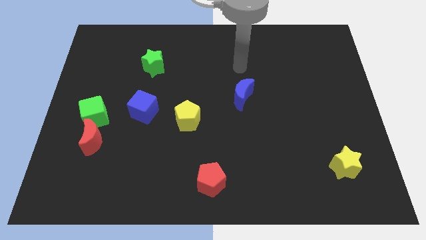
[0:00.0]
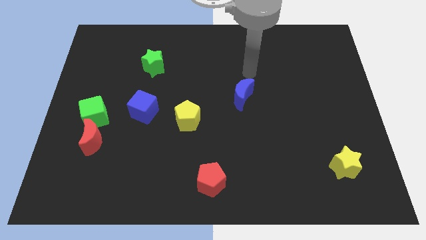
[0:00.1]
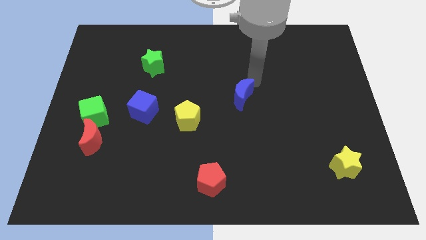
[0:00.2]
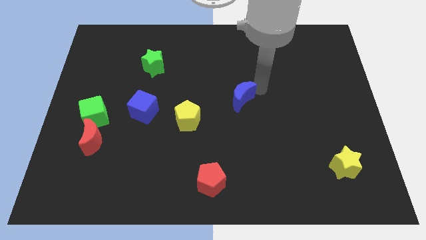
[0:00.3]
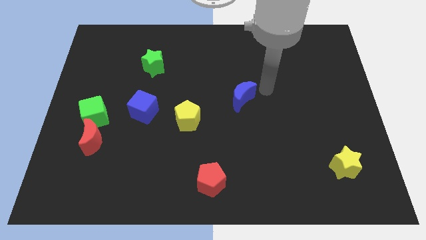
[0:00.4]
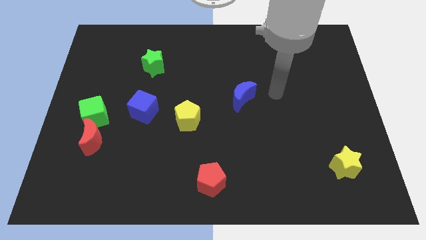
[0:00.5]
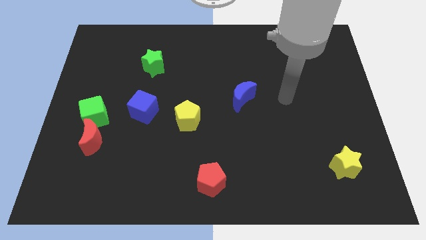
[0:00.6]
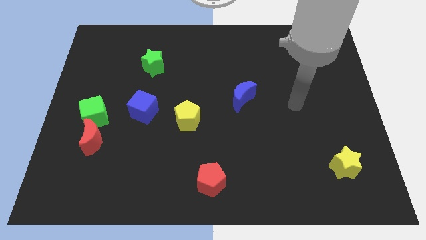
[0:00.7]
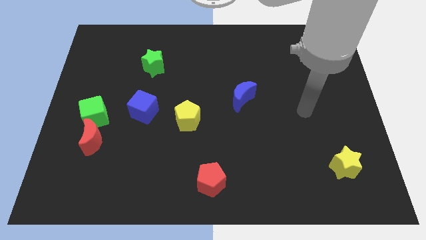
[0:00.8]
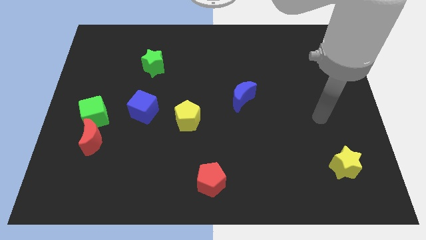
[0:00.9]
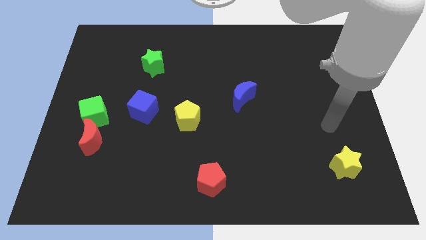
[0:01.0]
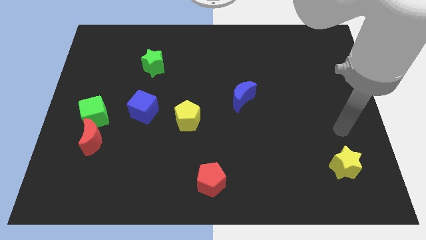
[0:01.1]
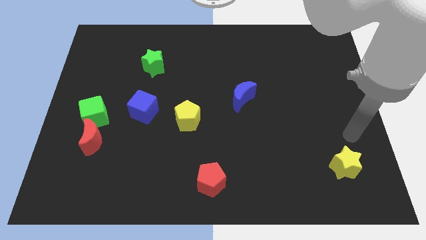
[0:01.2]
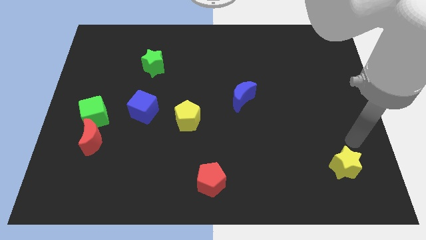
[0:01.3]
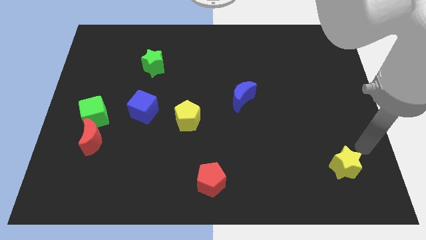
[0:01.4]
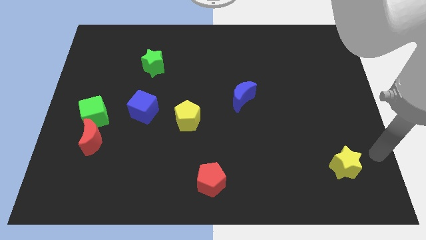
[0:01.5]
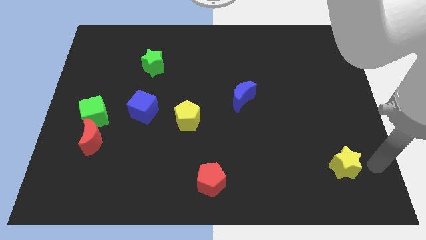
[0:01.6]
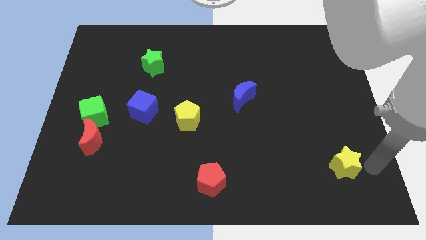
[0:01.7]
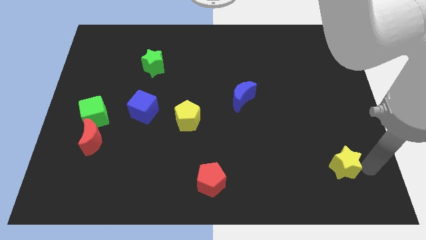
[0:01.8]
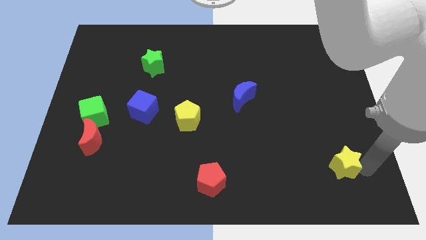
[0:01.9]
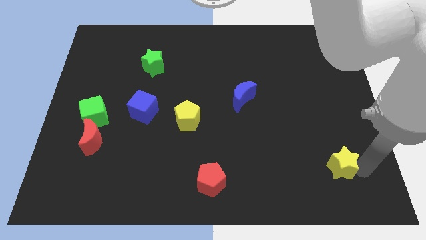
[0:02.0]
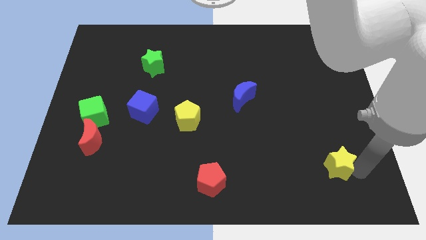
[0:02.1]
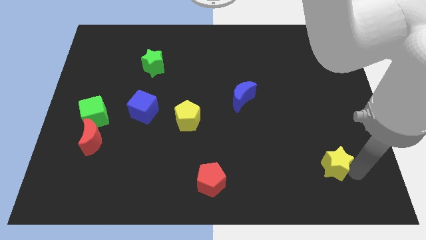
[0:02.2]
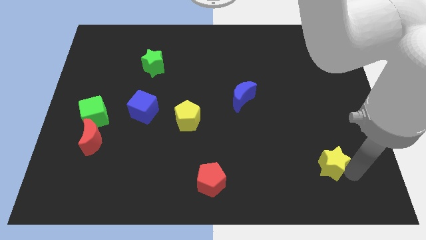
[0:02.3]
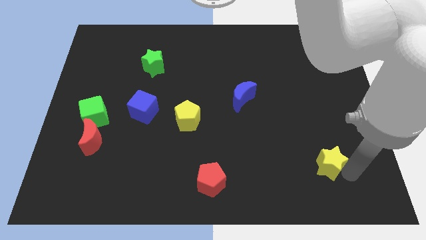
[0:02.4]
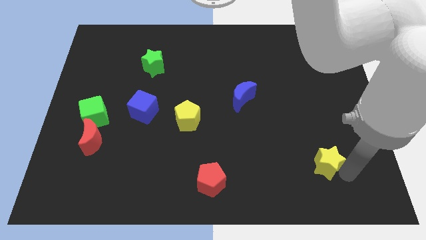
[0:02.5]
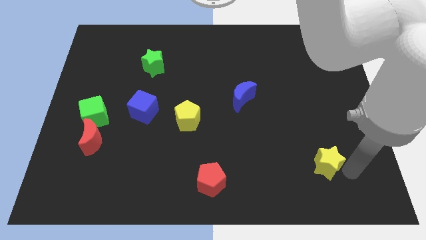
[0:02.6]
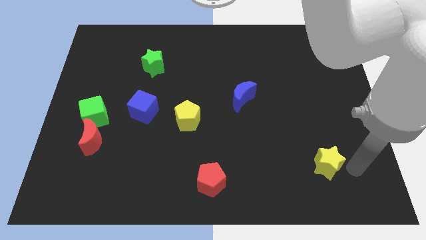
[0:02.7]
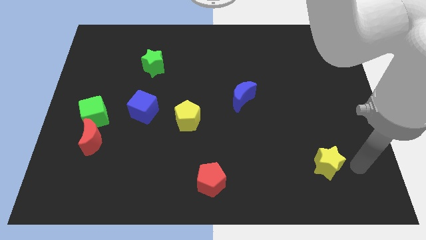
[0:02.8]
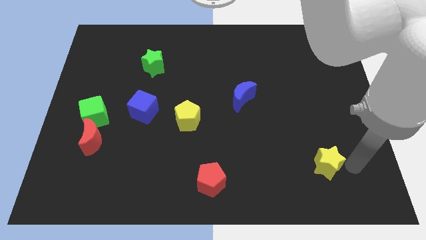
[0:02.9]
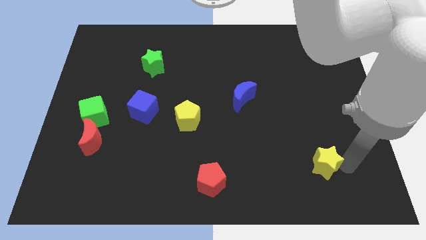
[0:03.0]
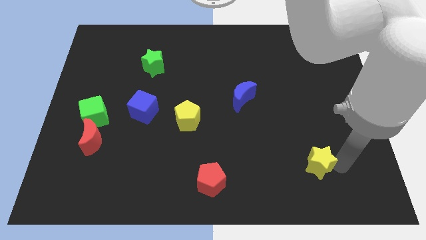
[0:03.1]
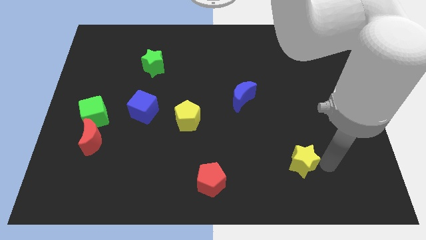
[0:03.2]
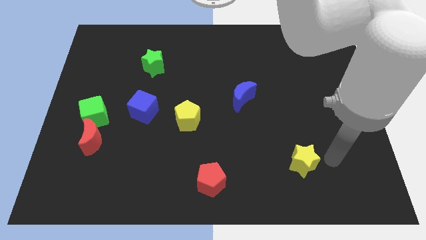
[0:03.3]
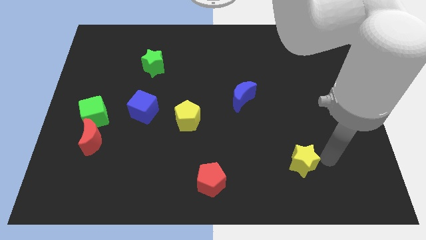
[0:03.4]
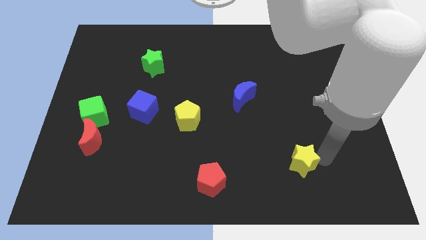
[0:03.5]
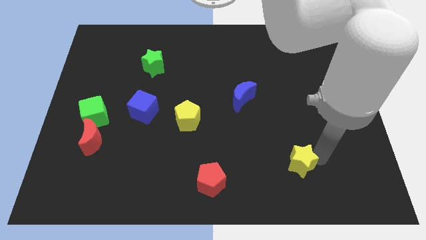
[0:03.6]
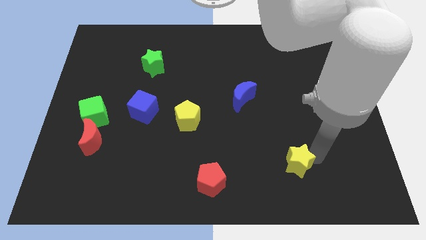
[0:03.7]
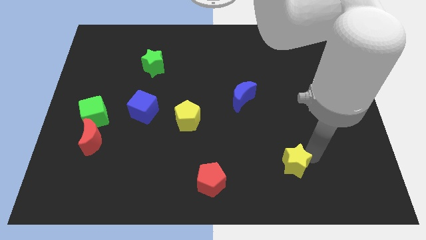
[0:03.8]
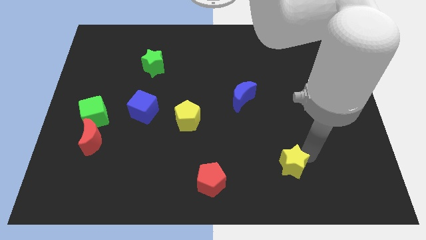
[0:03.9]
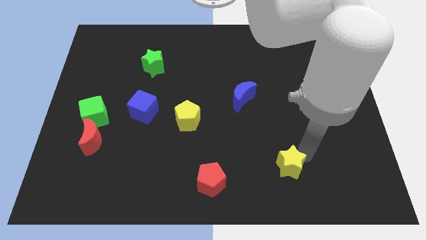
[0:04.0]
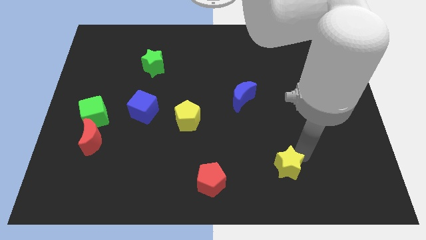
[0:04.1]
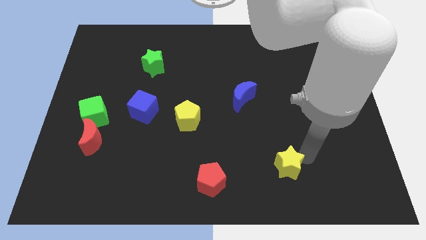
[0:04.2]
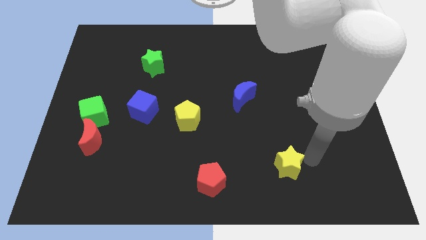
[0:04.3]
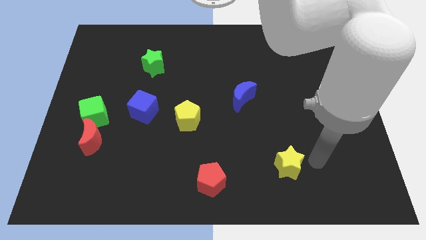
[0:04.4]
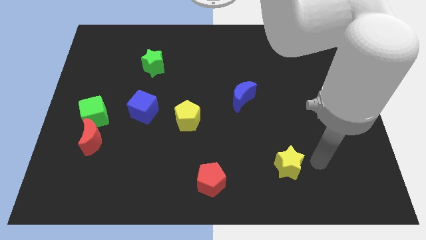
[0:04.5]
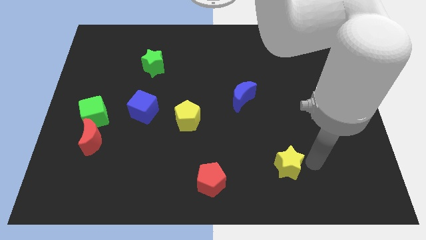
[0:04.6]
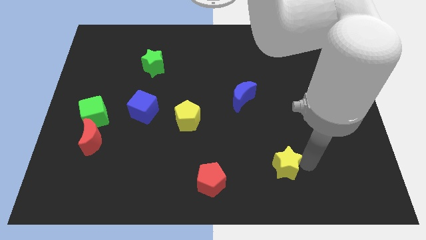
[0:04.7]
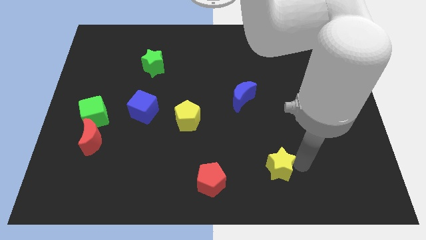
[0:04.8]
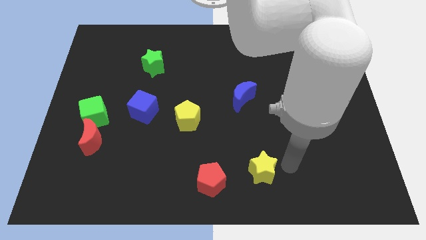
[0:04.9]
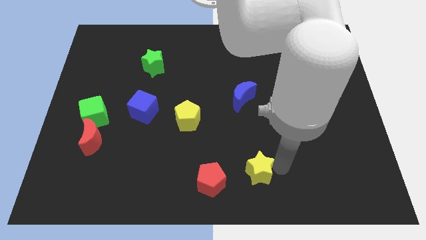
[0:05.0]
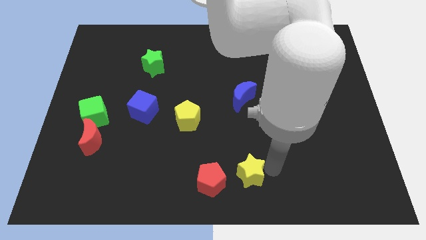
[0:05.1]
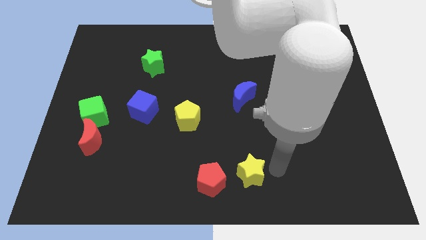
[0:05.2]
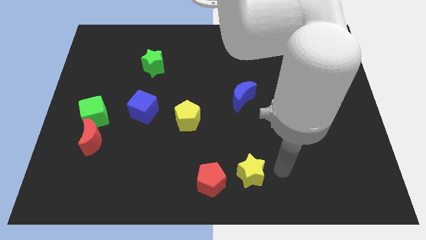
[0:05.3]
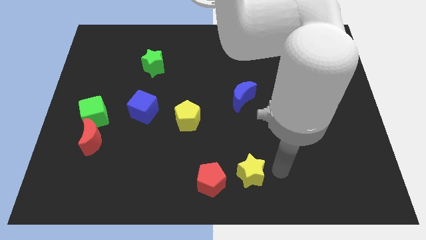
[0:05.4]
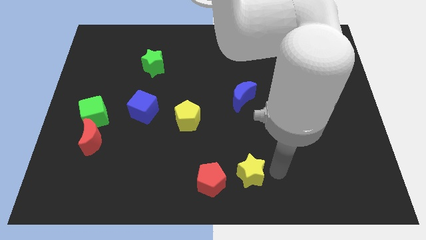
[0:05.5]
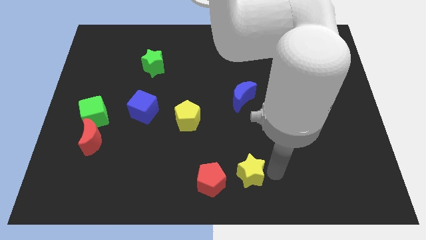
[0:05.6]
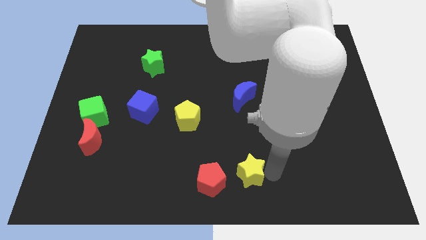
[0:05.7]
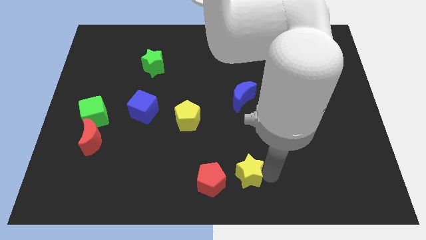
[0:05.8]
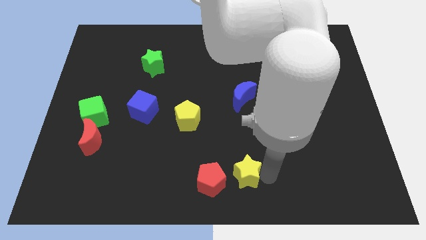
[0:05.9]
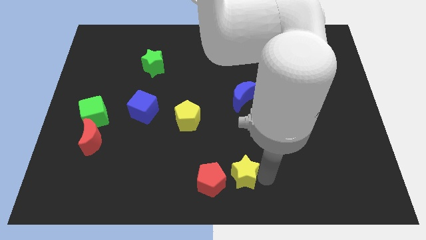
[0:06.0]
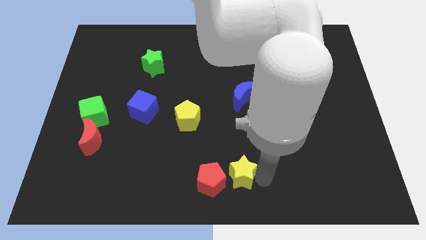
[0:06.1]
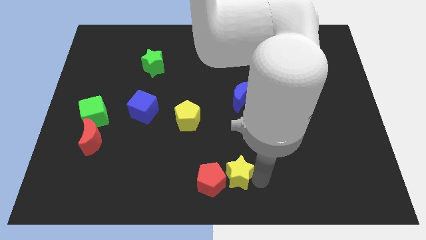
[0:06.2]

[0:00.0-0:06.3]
put the yellow star close to the red pentagon

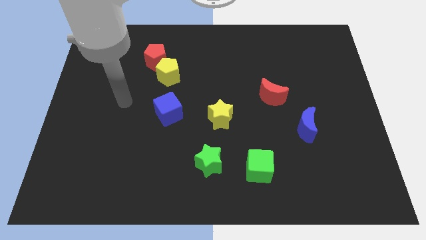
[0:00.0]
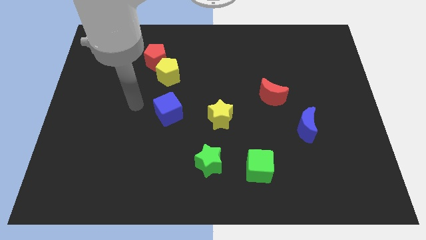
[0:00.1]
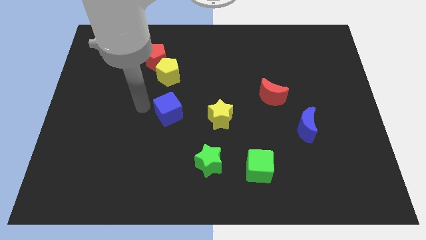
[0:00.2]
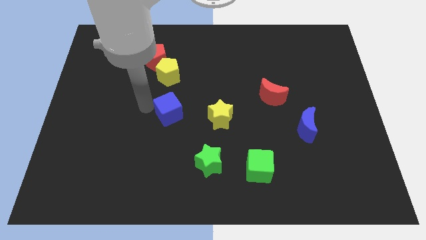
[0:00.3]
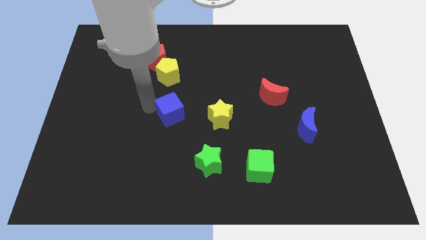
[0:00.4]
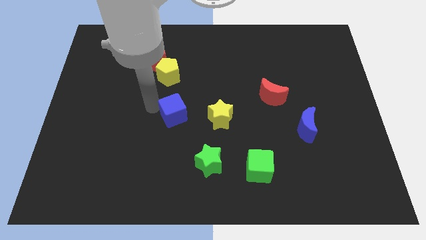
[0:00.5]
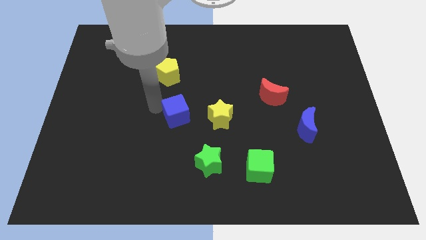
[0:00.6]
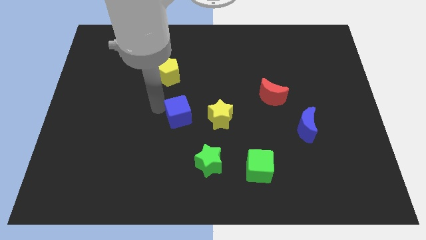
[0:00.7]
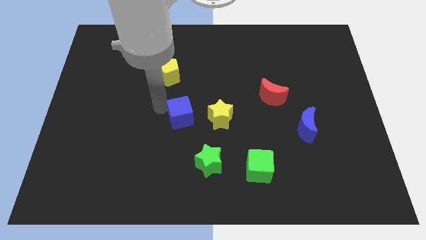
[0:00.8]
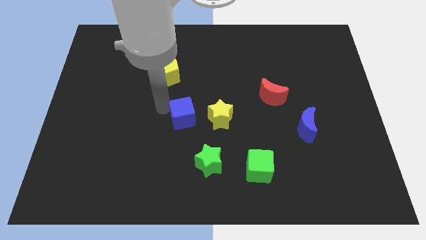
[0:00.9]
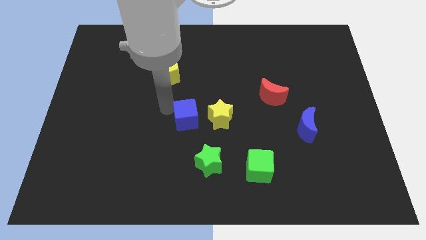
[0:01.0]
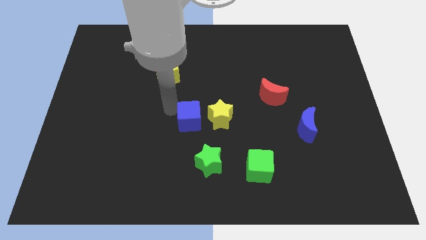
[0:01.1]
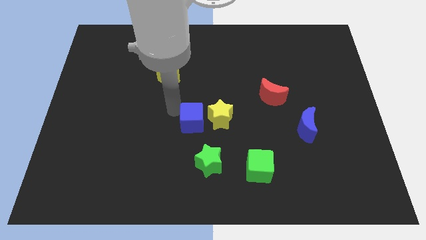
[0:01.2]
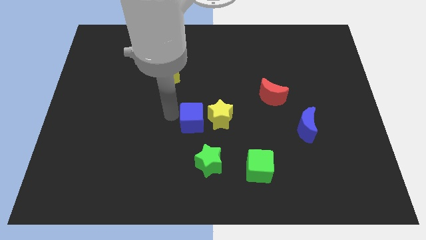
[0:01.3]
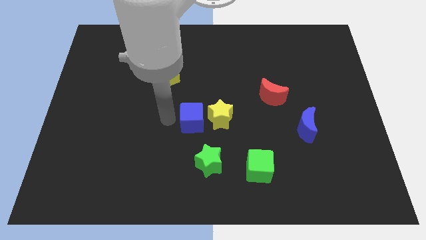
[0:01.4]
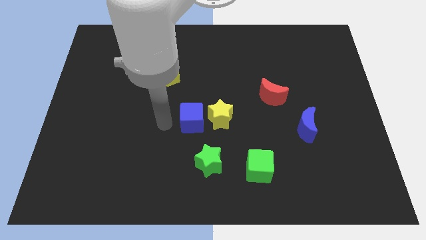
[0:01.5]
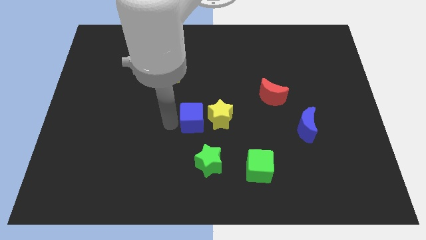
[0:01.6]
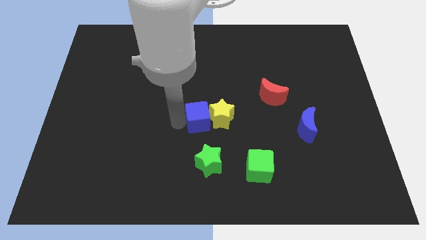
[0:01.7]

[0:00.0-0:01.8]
slide the blue cube close to the yellow star
